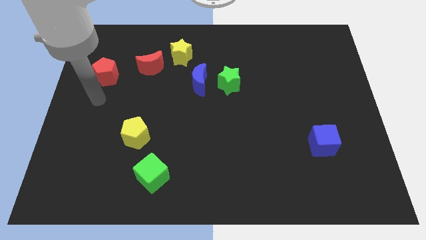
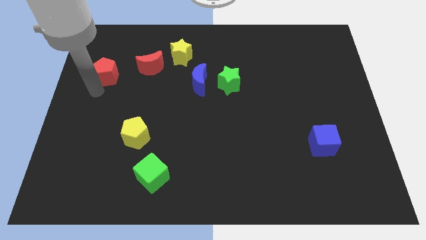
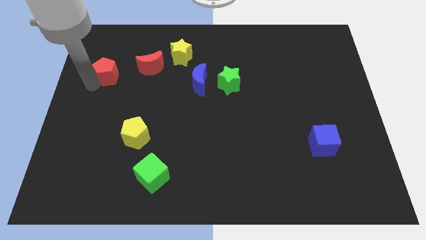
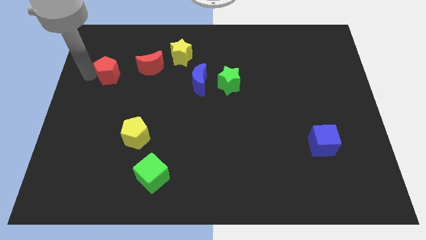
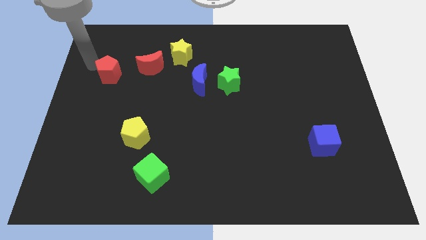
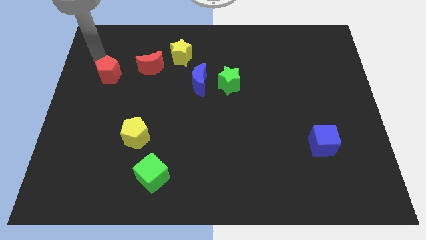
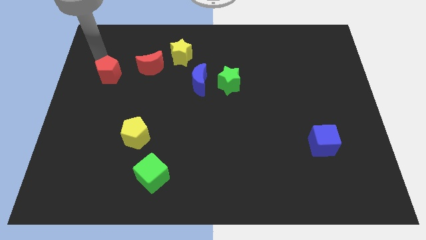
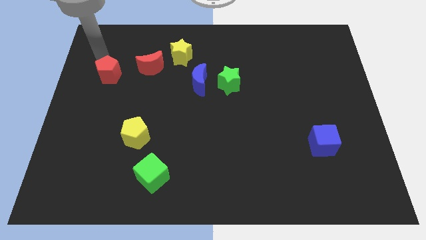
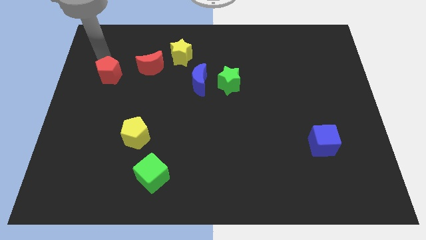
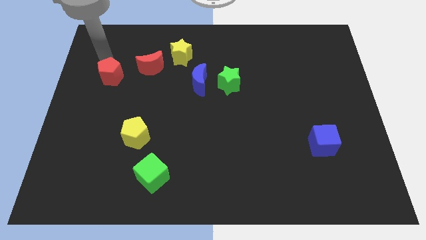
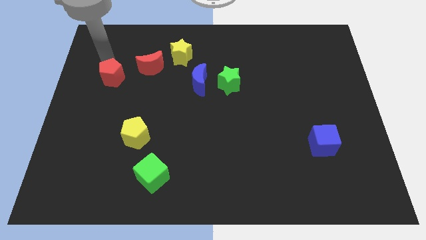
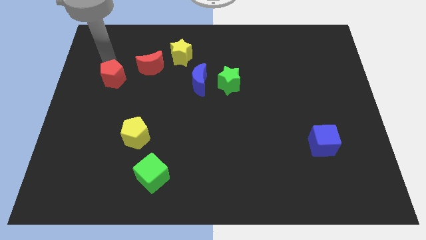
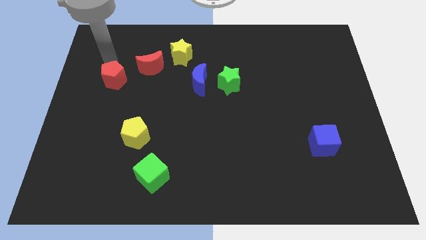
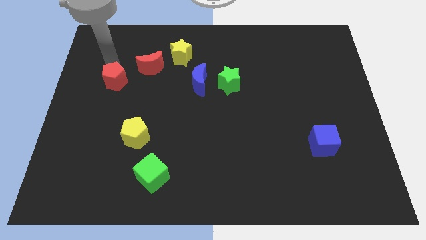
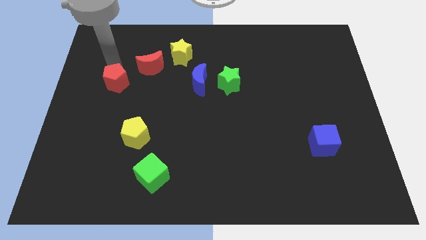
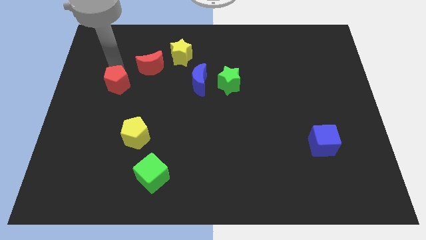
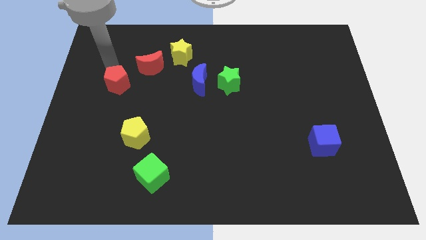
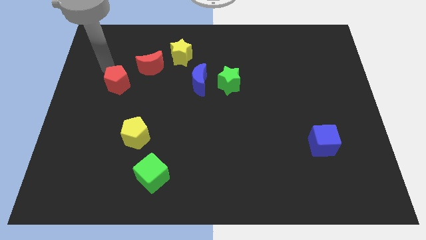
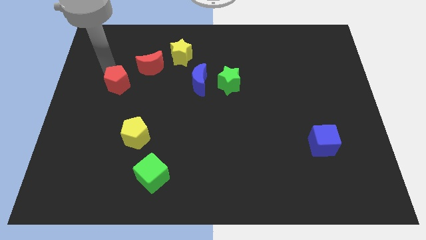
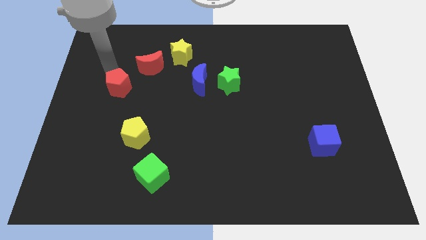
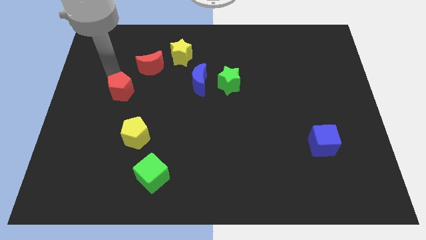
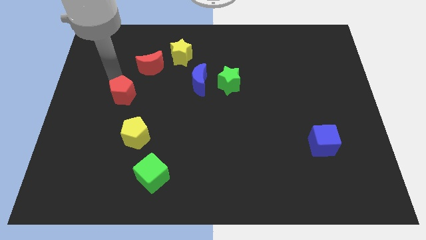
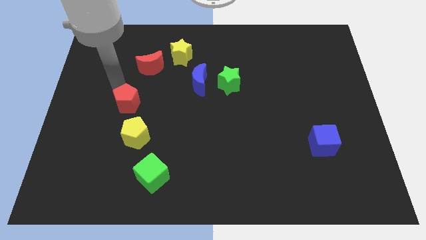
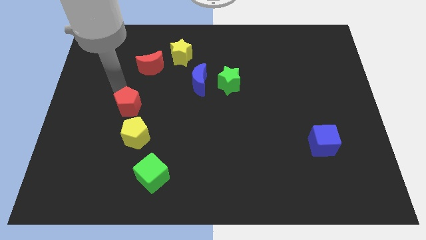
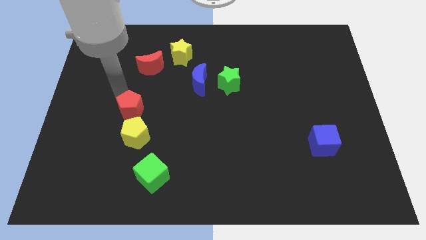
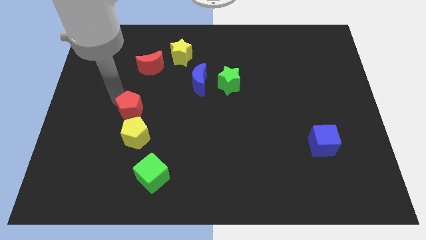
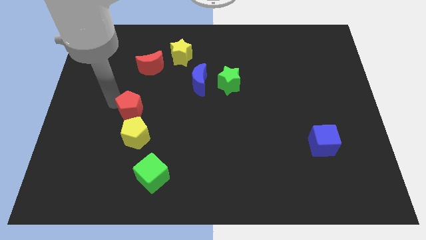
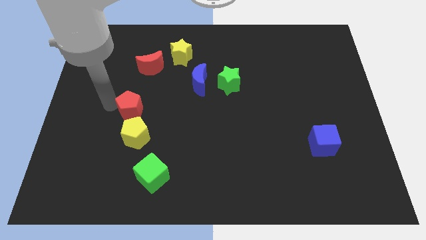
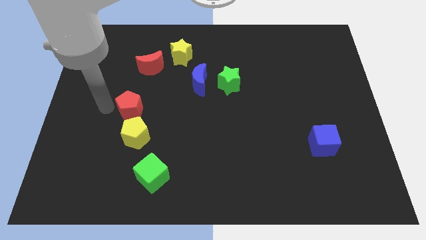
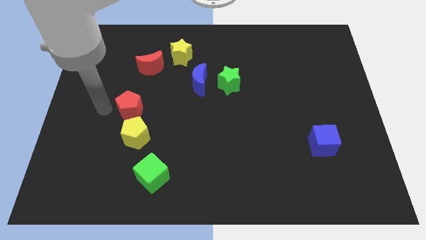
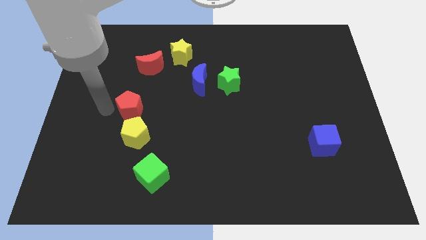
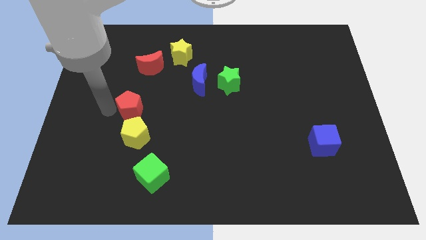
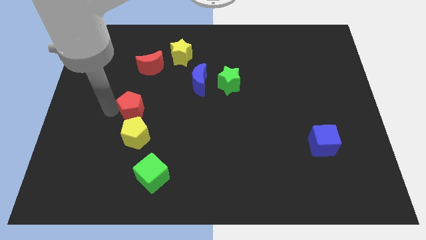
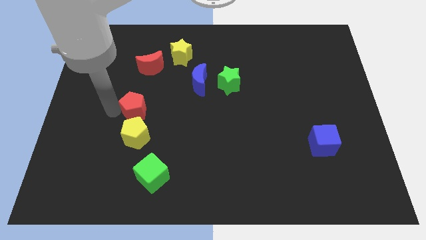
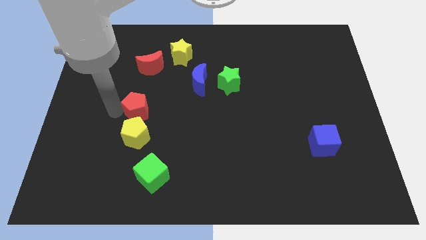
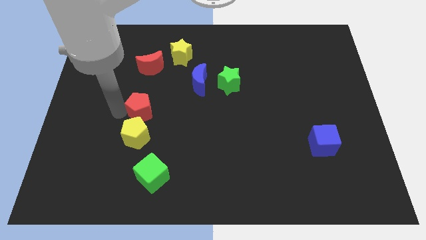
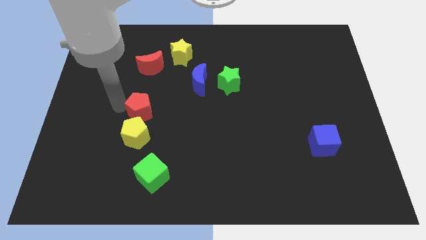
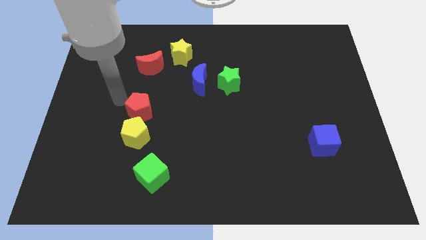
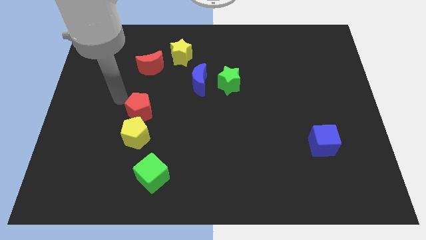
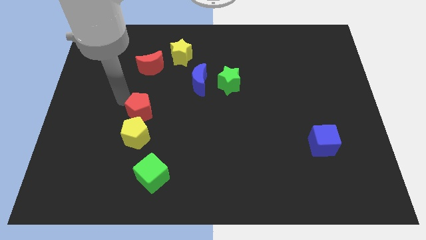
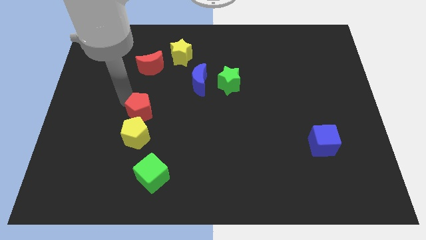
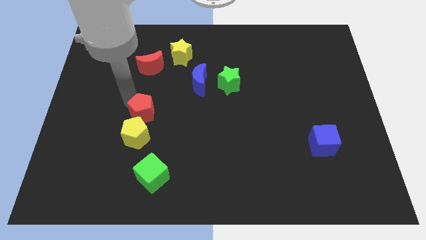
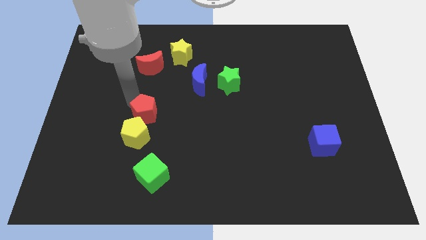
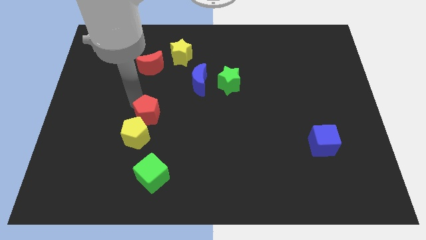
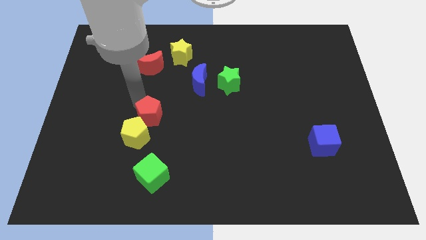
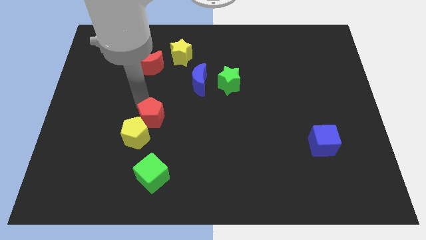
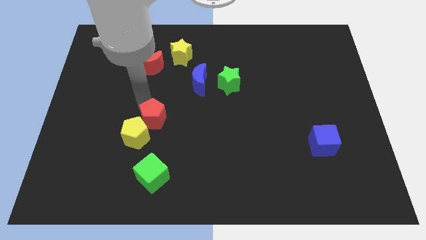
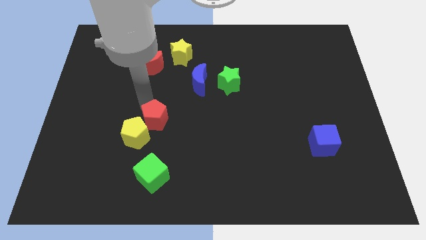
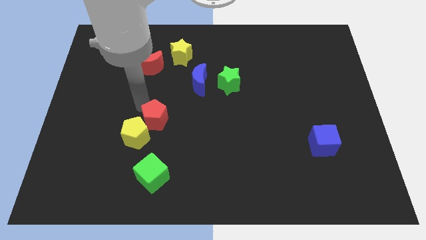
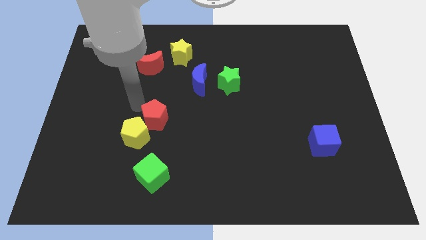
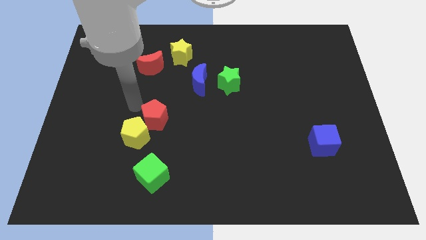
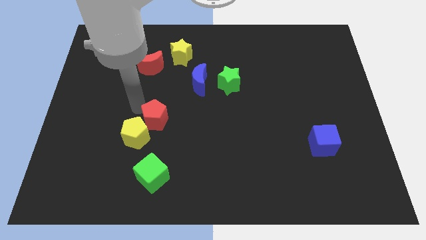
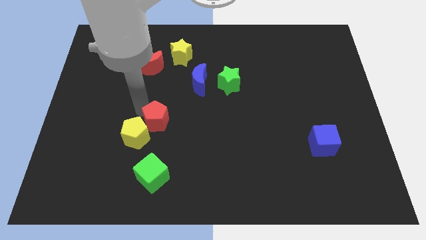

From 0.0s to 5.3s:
push the red pentagon diagonally down and to the right

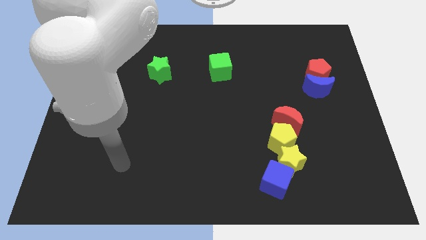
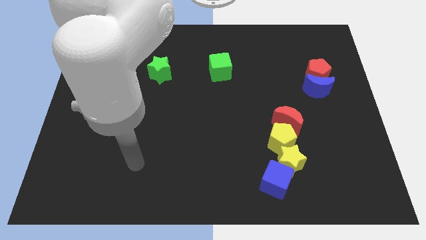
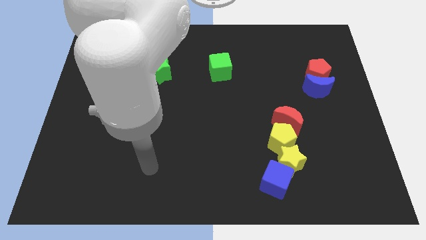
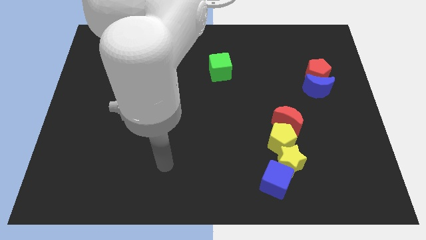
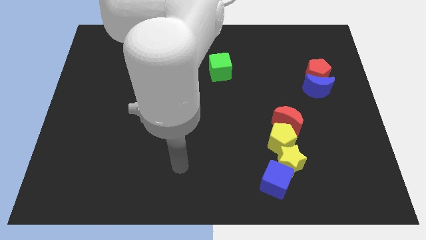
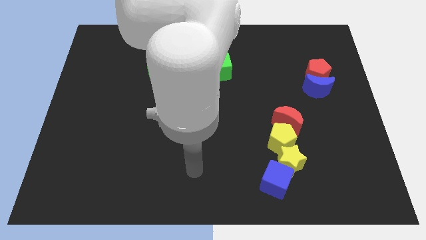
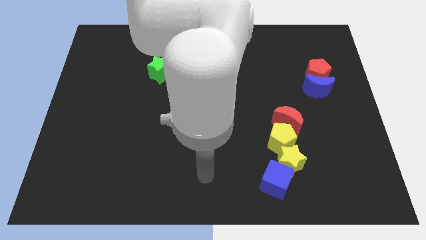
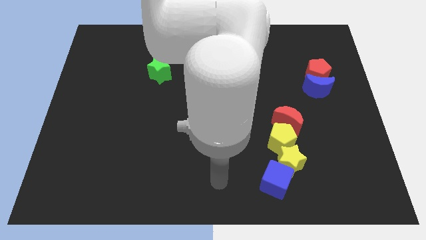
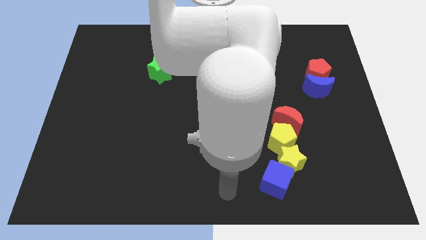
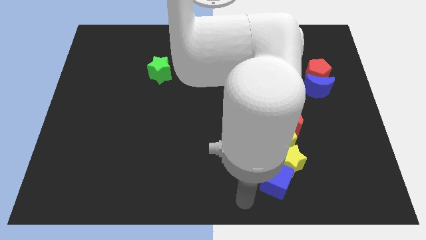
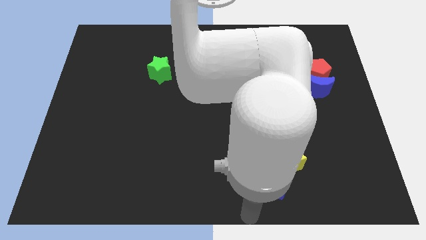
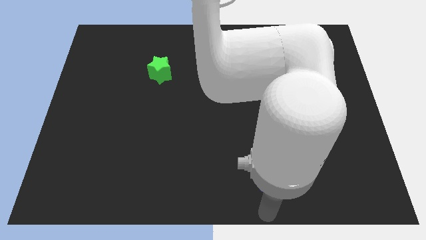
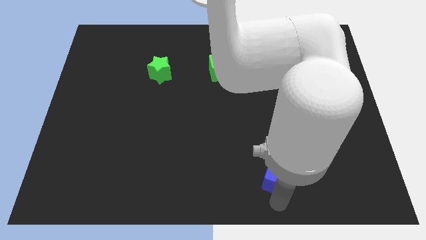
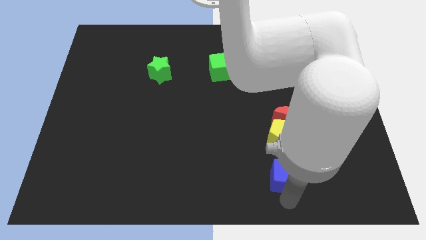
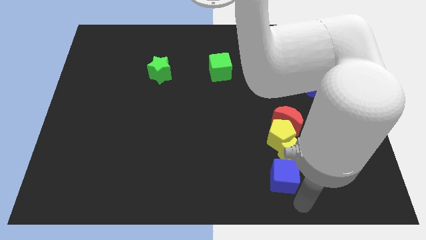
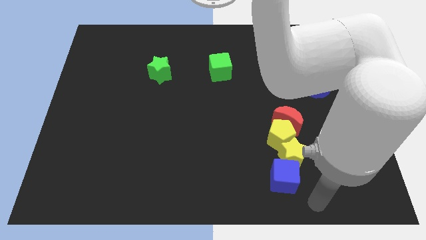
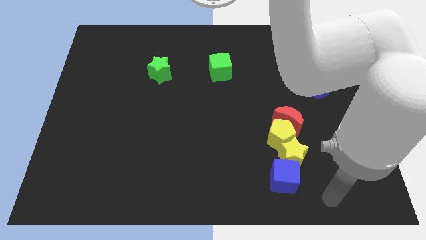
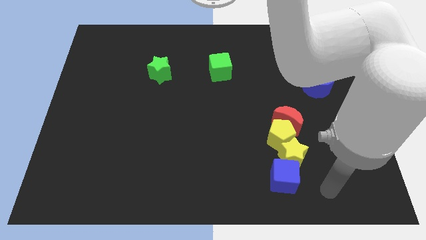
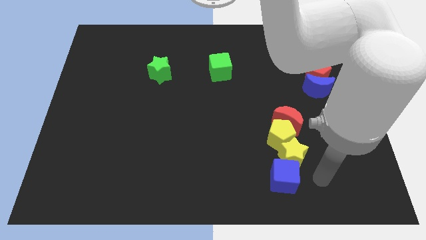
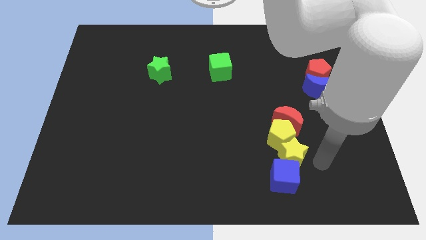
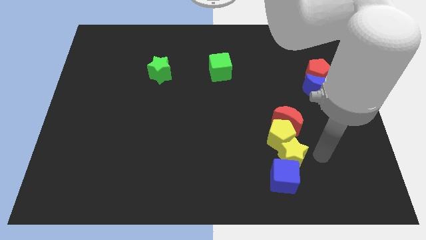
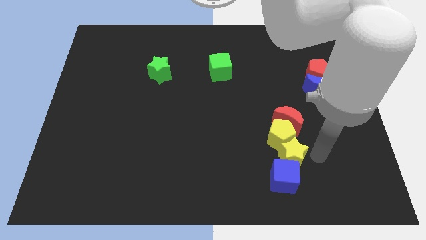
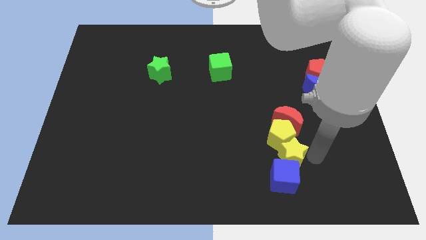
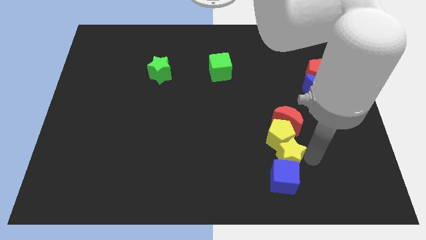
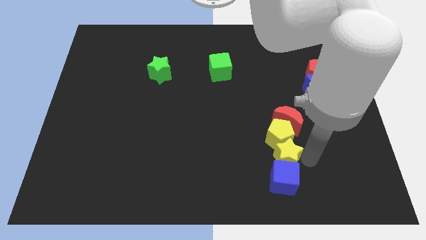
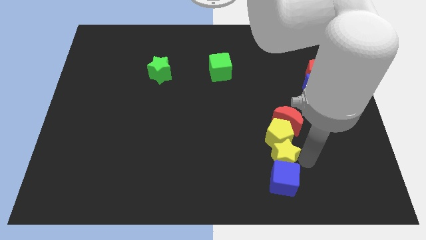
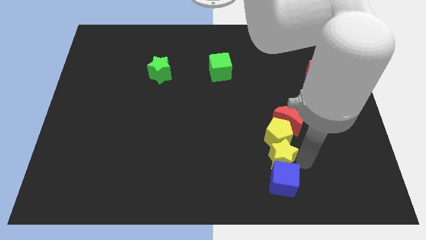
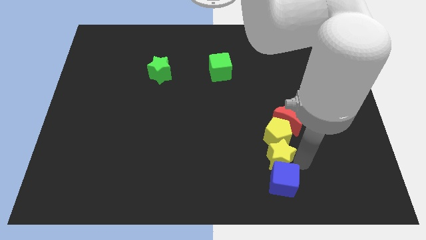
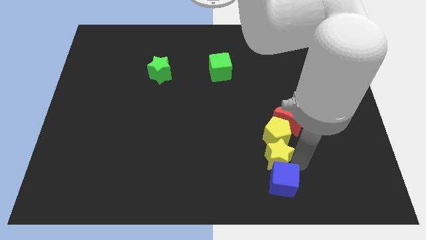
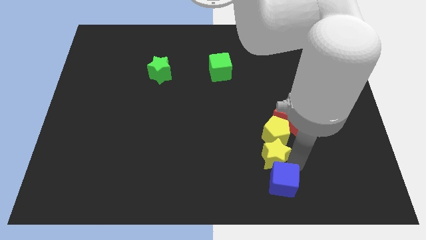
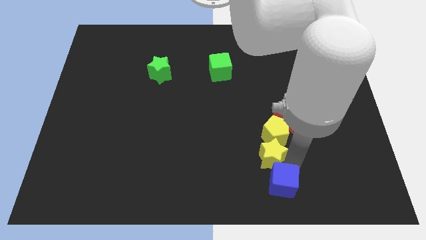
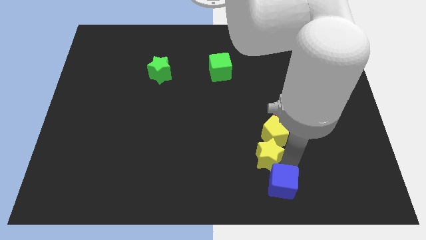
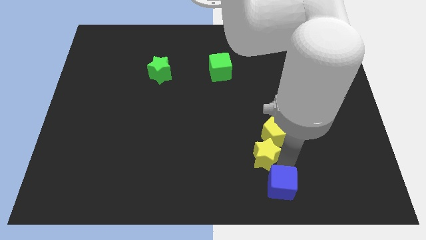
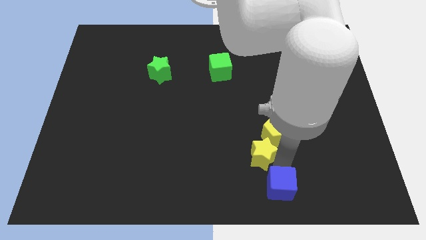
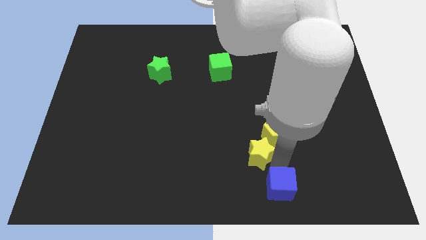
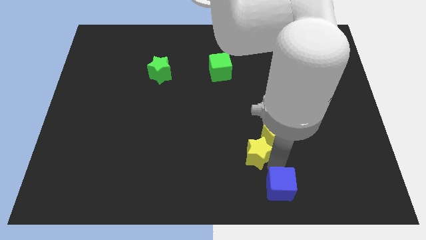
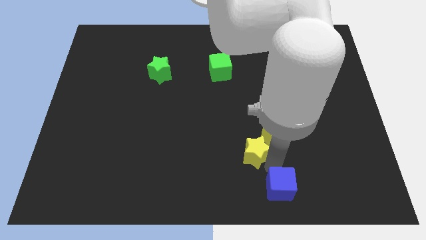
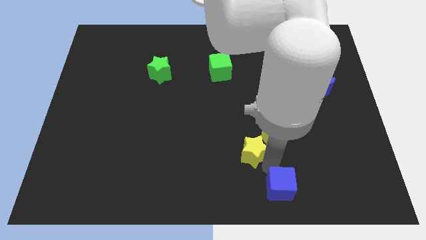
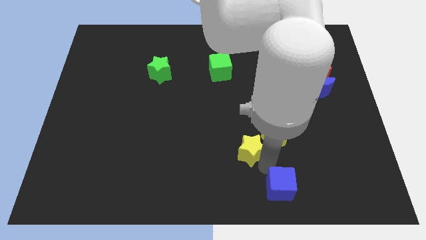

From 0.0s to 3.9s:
slide the yellow star a little bit diagonally up and left
